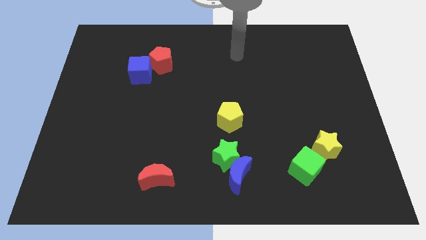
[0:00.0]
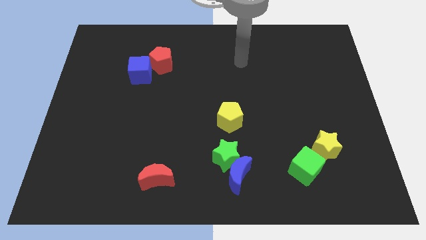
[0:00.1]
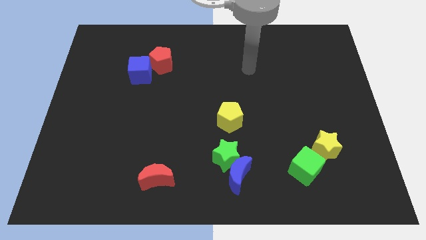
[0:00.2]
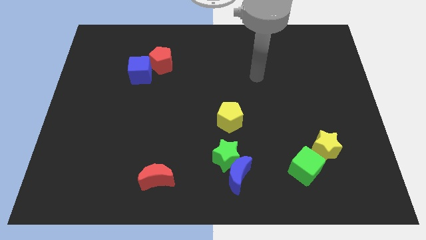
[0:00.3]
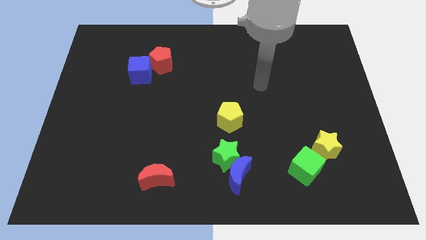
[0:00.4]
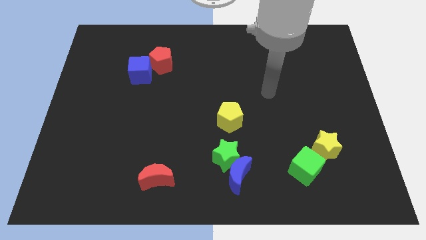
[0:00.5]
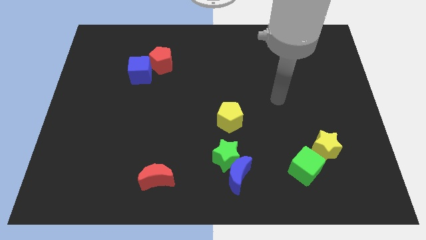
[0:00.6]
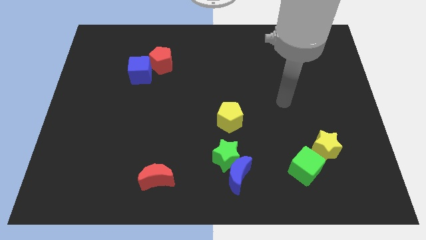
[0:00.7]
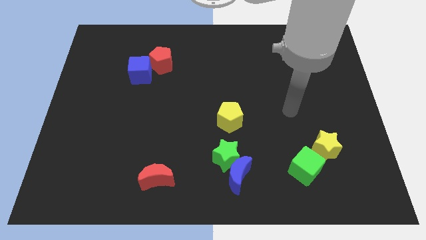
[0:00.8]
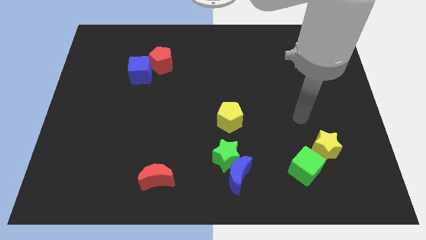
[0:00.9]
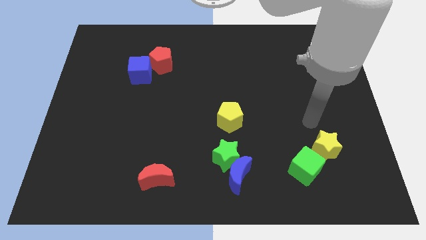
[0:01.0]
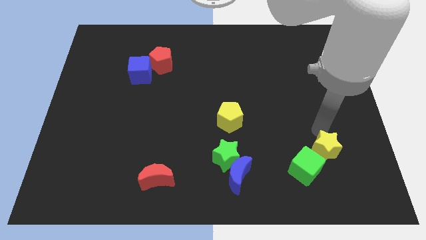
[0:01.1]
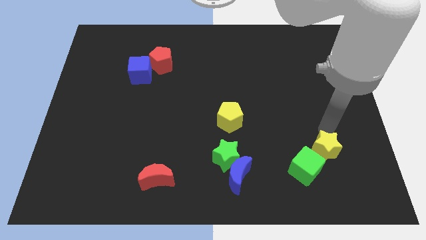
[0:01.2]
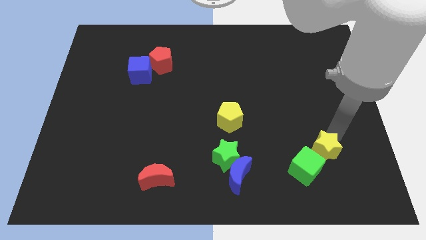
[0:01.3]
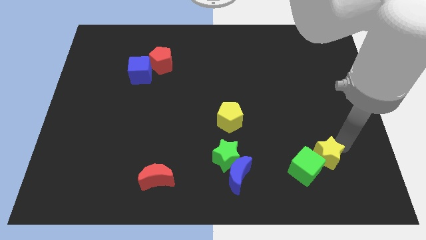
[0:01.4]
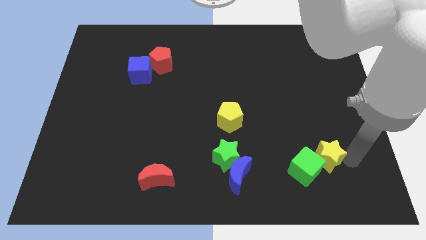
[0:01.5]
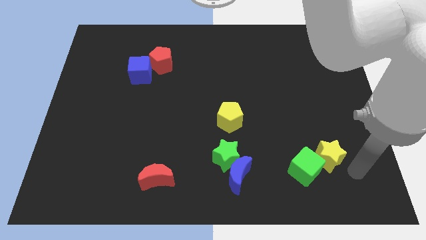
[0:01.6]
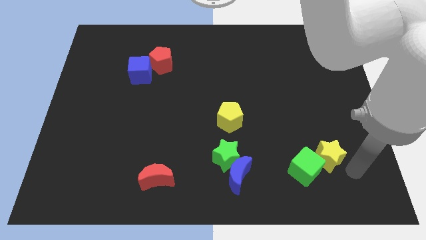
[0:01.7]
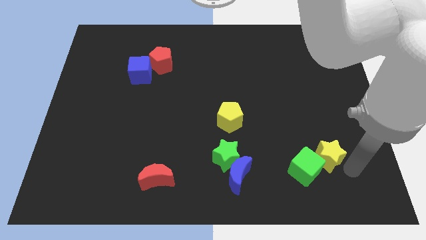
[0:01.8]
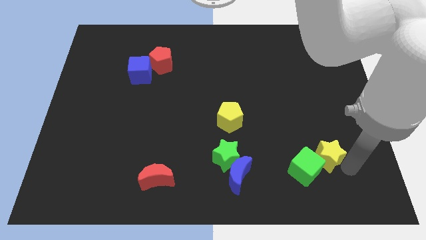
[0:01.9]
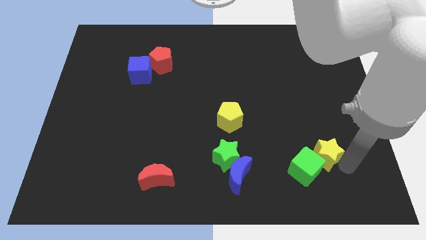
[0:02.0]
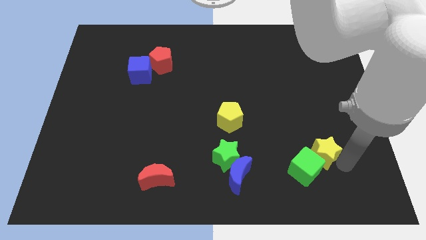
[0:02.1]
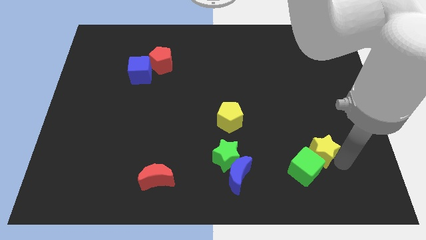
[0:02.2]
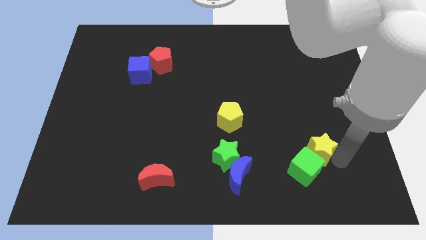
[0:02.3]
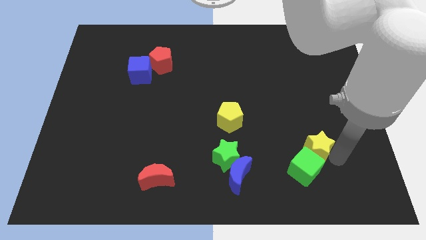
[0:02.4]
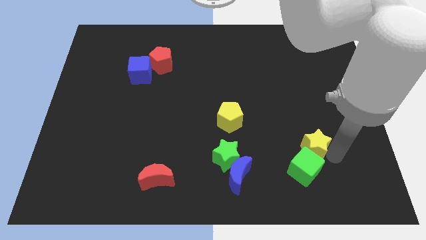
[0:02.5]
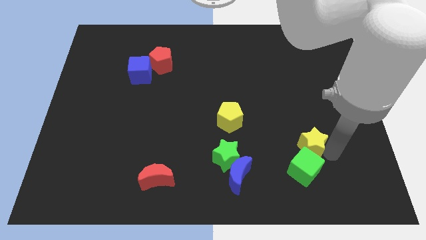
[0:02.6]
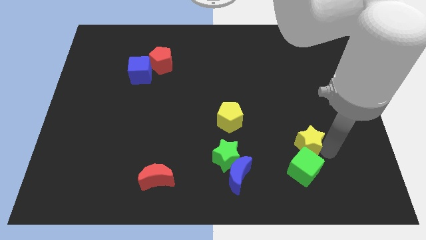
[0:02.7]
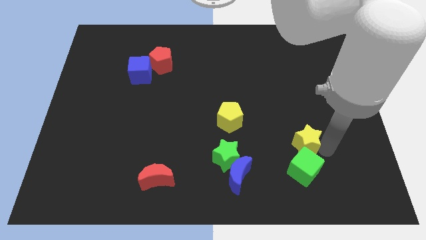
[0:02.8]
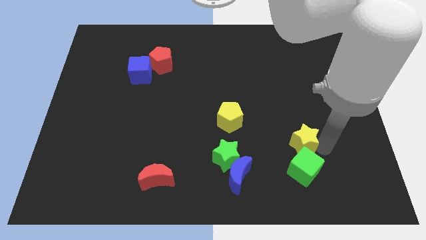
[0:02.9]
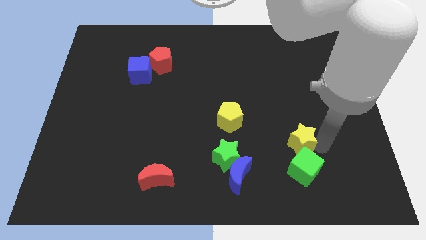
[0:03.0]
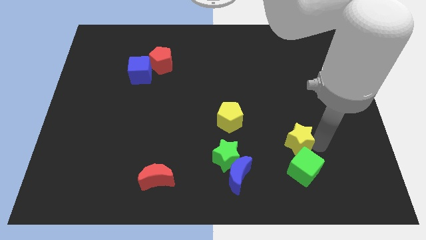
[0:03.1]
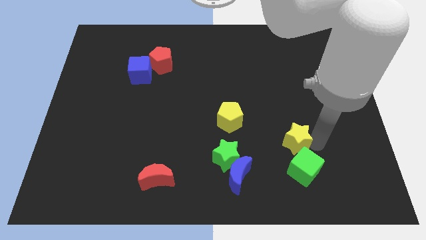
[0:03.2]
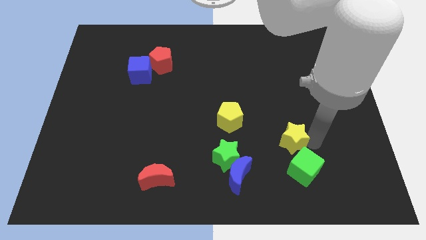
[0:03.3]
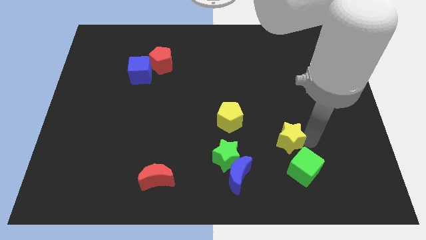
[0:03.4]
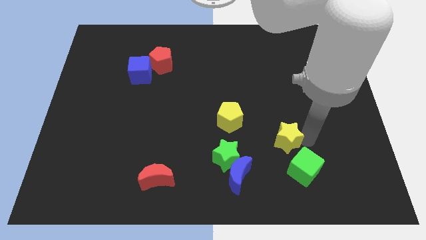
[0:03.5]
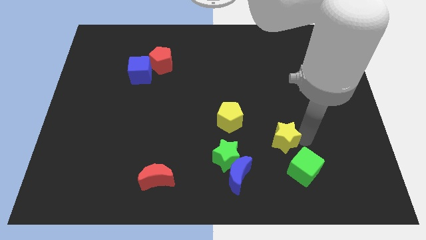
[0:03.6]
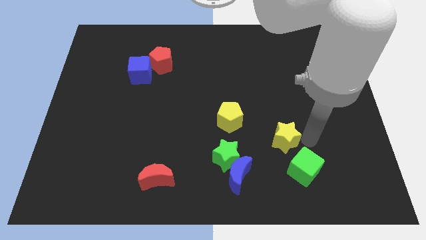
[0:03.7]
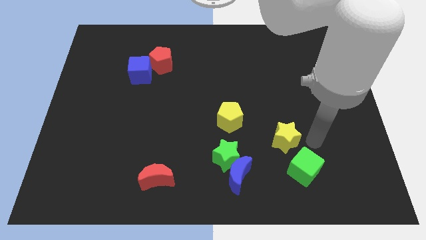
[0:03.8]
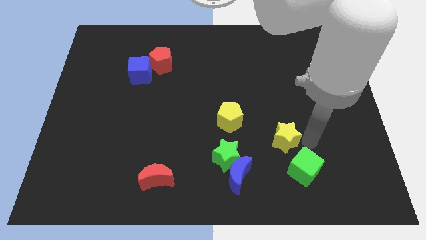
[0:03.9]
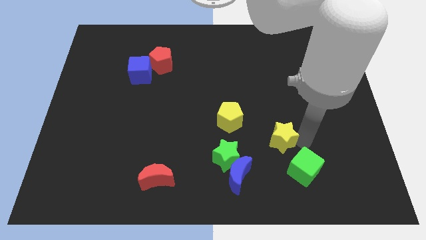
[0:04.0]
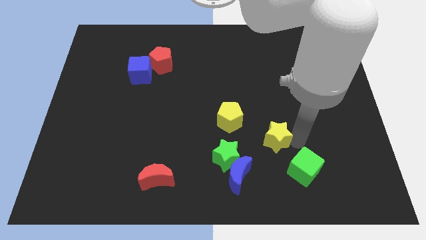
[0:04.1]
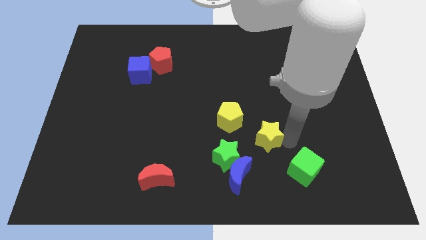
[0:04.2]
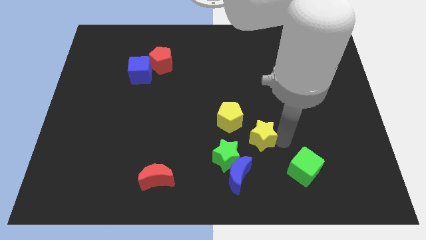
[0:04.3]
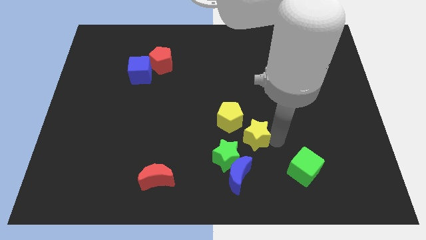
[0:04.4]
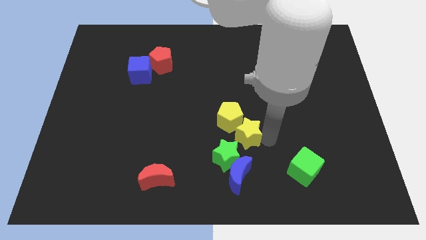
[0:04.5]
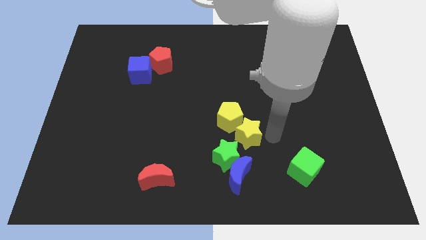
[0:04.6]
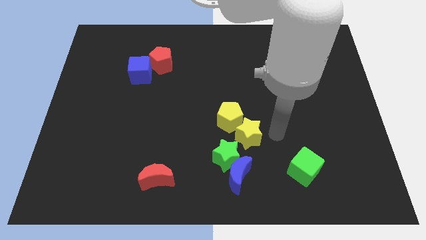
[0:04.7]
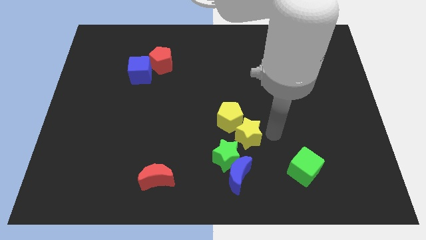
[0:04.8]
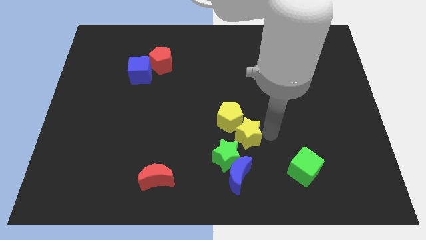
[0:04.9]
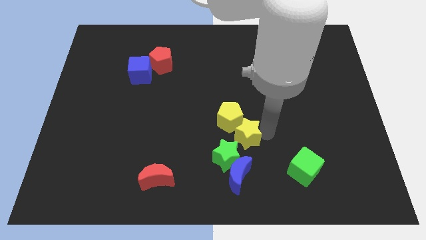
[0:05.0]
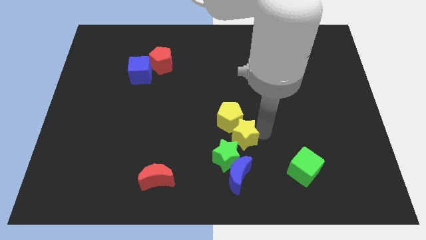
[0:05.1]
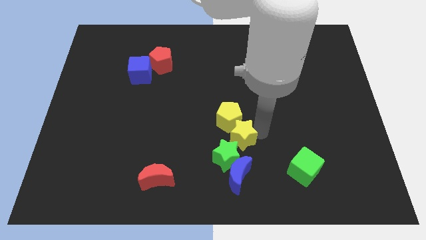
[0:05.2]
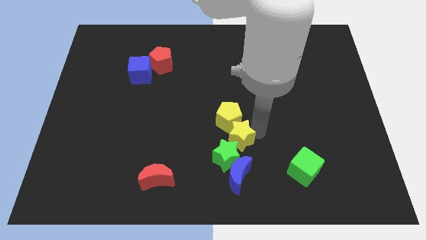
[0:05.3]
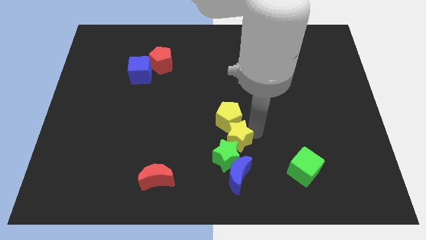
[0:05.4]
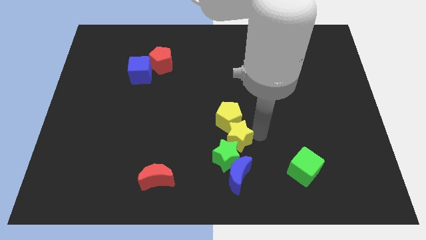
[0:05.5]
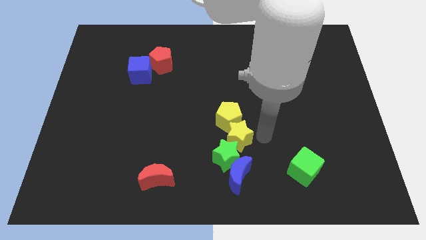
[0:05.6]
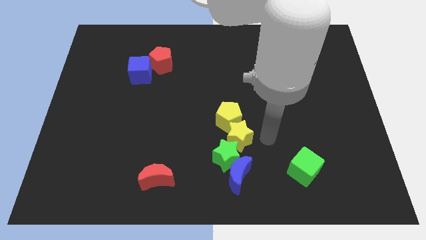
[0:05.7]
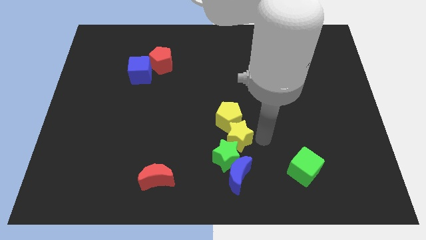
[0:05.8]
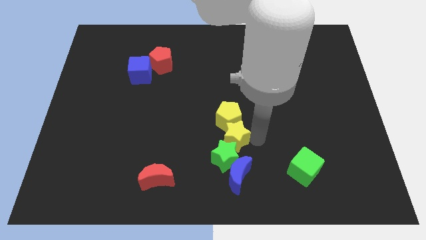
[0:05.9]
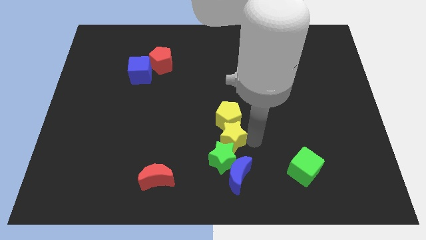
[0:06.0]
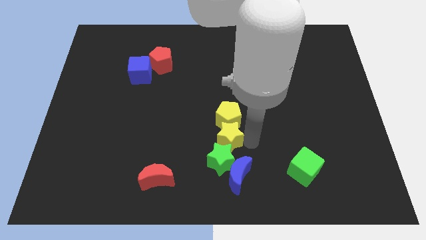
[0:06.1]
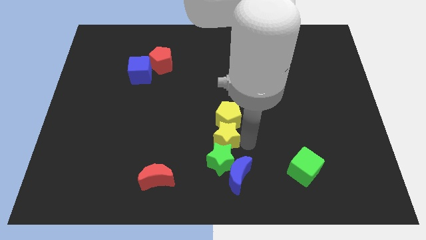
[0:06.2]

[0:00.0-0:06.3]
push the yellow star to the top left of the green star

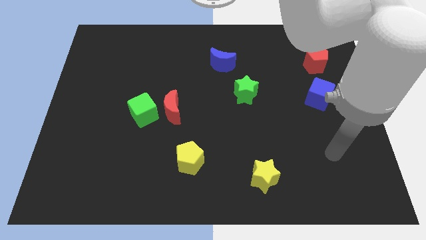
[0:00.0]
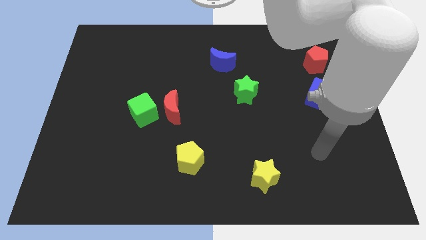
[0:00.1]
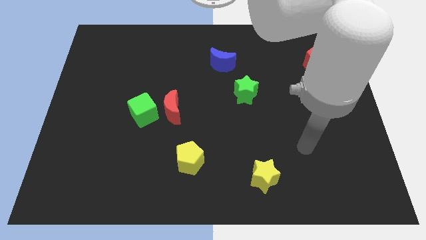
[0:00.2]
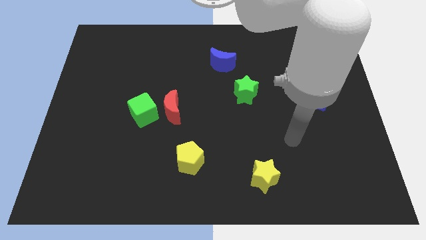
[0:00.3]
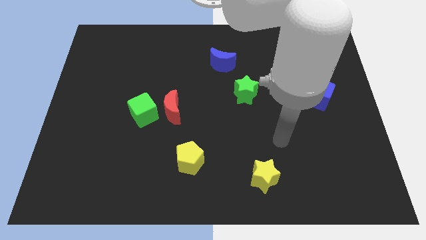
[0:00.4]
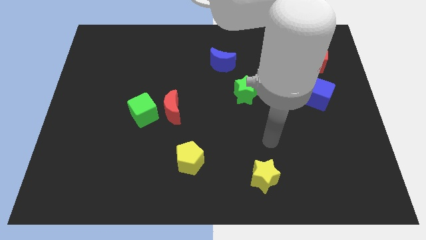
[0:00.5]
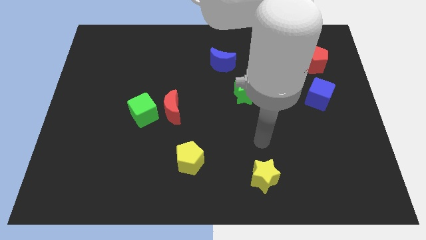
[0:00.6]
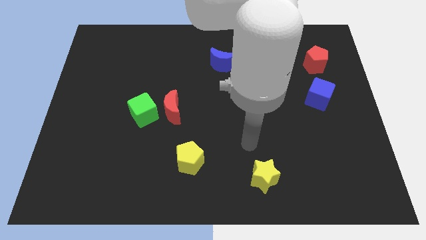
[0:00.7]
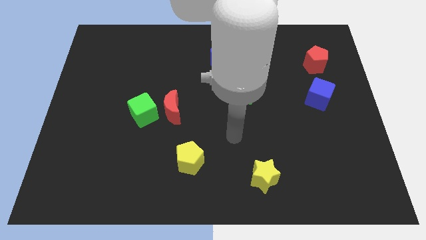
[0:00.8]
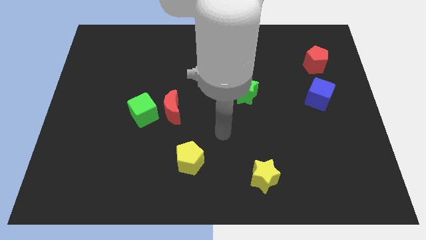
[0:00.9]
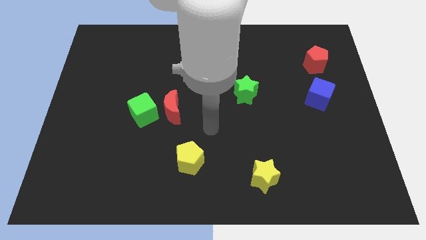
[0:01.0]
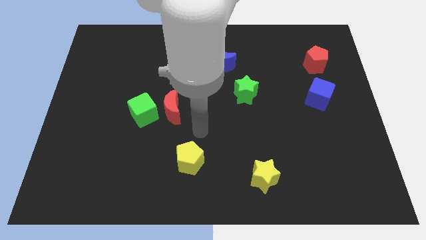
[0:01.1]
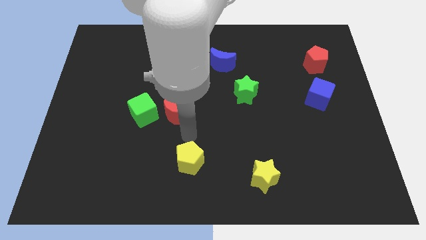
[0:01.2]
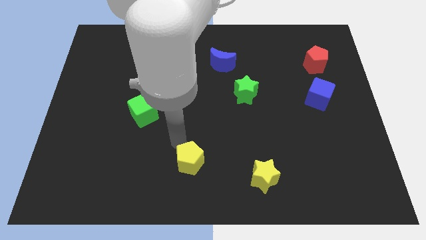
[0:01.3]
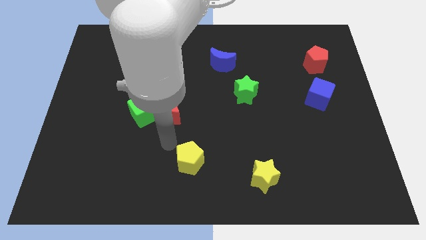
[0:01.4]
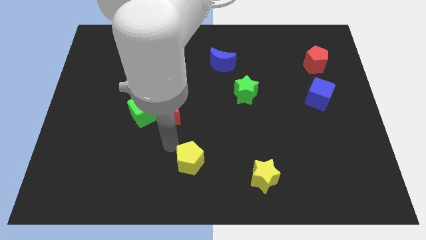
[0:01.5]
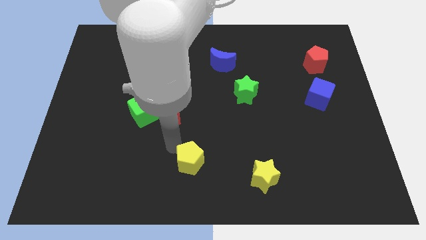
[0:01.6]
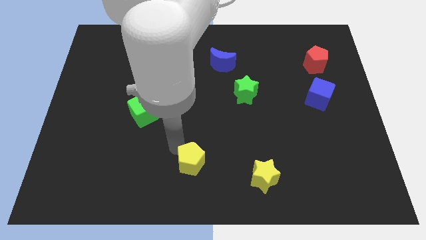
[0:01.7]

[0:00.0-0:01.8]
put the yellow pentagon just left of the yellow star

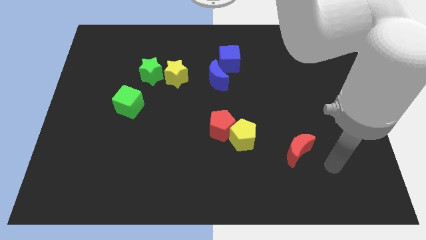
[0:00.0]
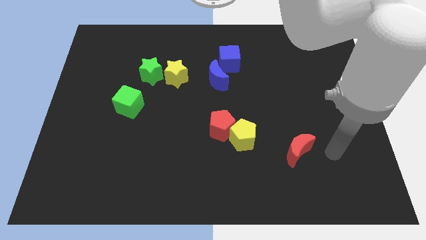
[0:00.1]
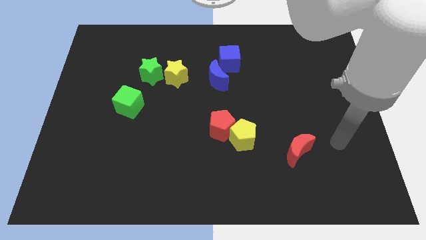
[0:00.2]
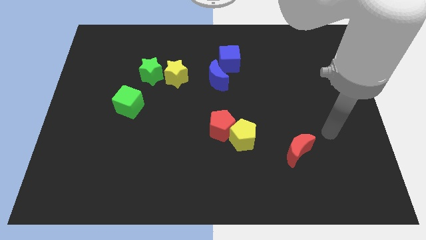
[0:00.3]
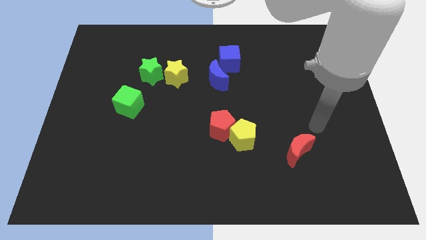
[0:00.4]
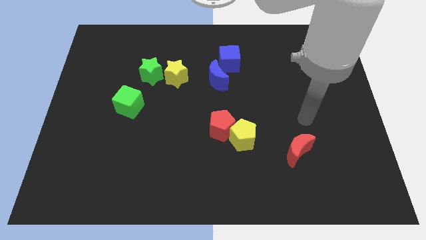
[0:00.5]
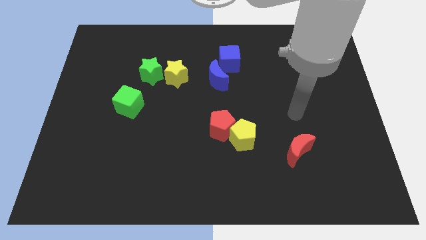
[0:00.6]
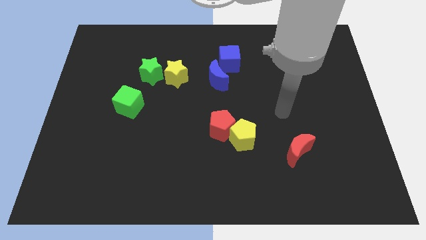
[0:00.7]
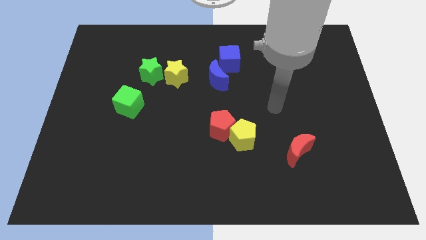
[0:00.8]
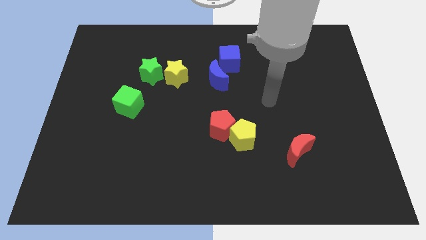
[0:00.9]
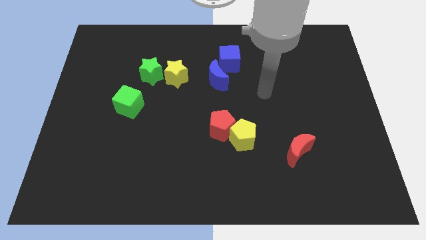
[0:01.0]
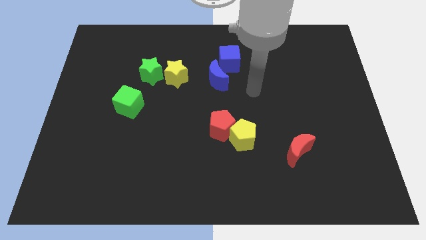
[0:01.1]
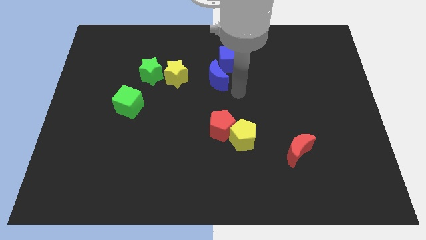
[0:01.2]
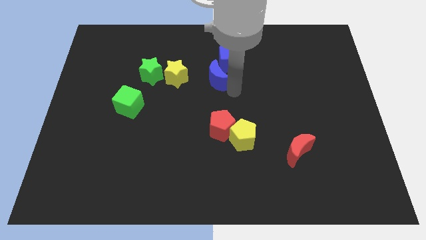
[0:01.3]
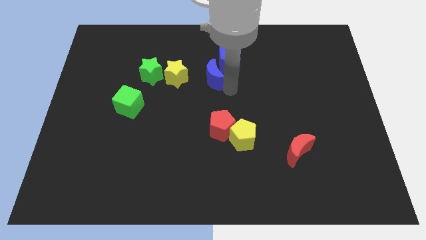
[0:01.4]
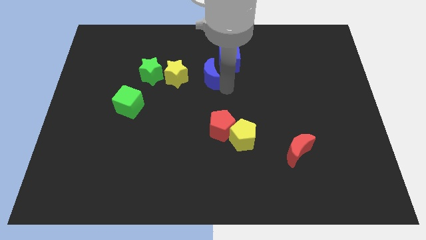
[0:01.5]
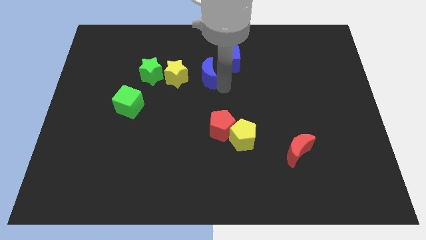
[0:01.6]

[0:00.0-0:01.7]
put the blue moon to the left of the blue cube
